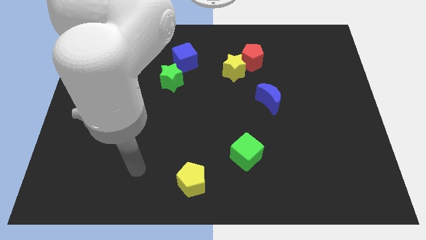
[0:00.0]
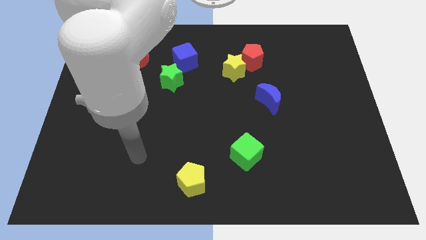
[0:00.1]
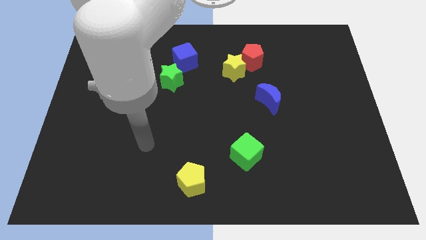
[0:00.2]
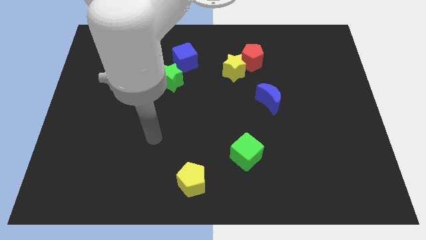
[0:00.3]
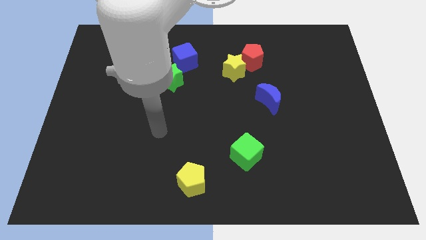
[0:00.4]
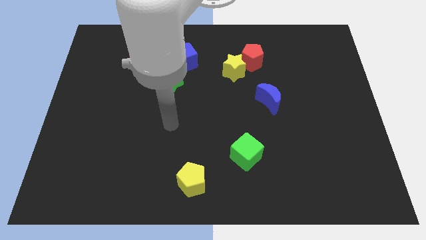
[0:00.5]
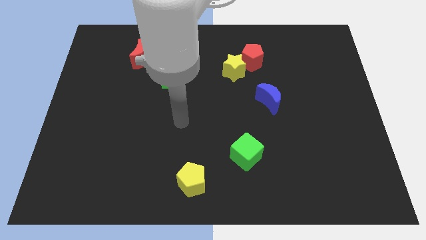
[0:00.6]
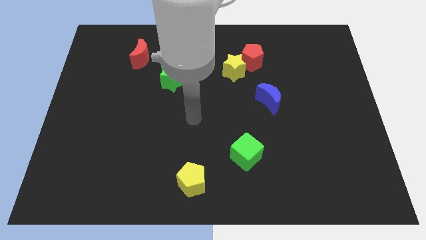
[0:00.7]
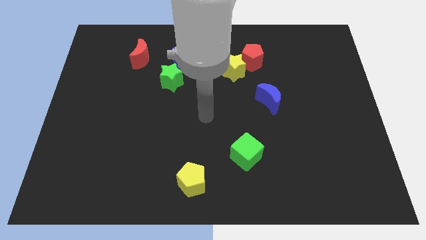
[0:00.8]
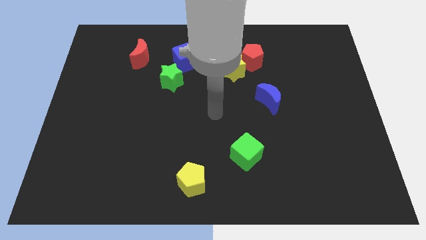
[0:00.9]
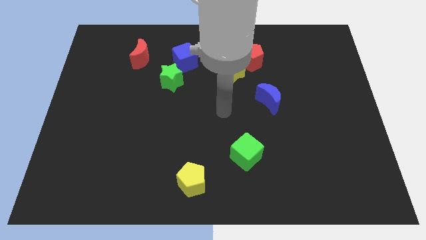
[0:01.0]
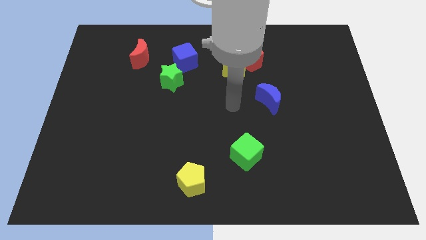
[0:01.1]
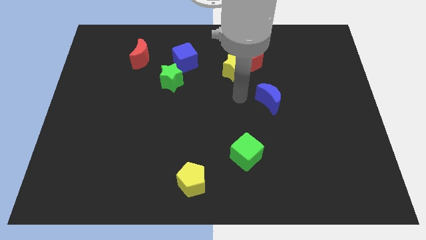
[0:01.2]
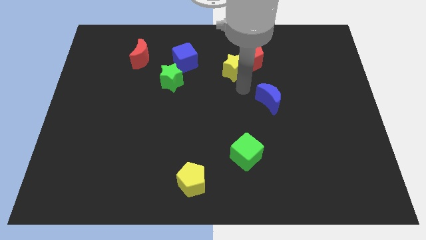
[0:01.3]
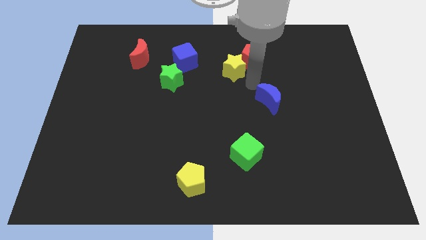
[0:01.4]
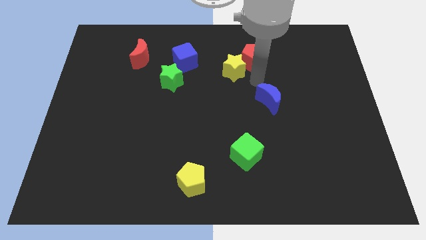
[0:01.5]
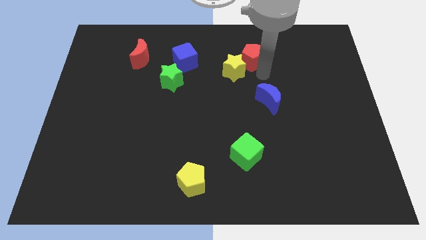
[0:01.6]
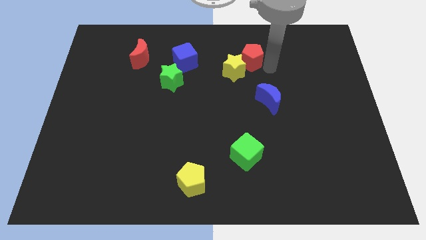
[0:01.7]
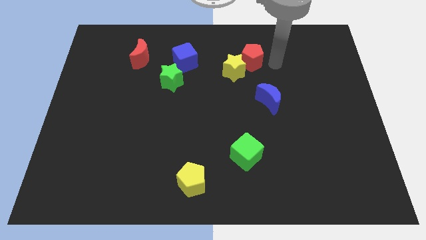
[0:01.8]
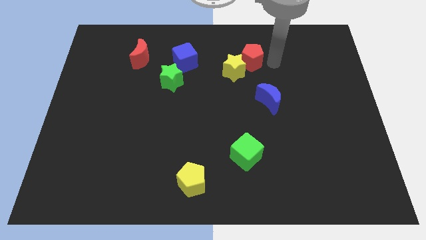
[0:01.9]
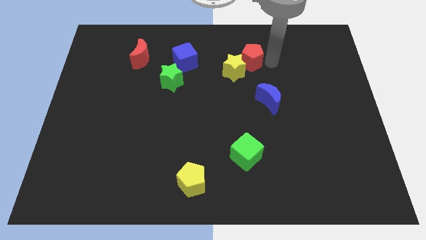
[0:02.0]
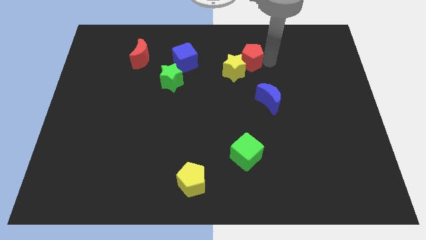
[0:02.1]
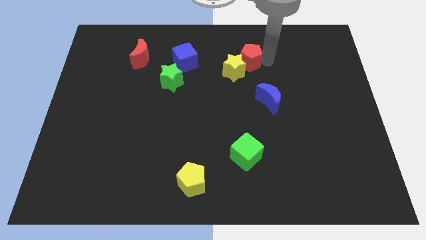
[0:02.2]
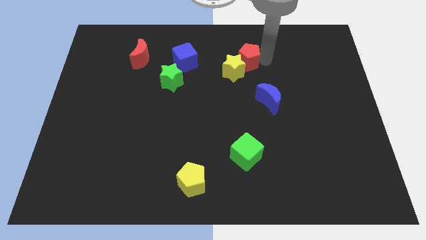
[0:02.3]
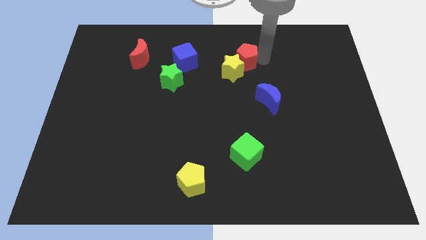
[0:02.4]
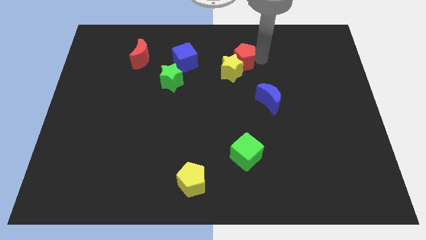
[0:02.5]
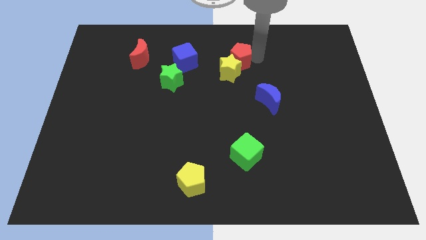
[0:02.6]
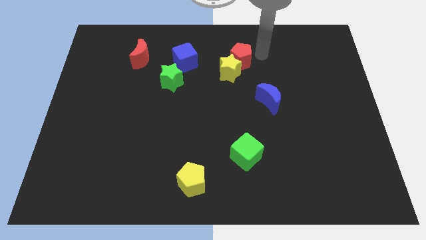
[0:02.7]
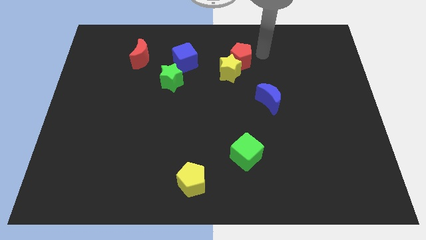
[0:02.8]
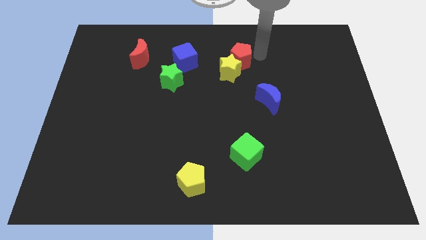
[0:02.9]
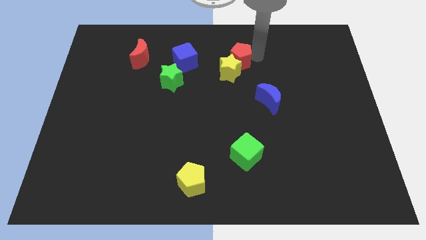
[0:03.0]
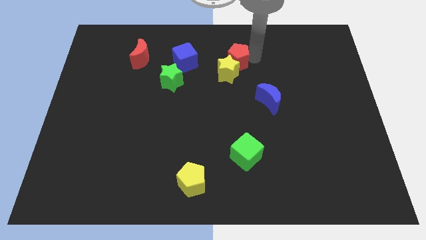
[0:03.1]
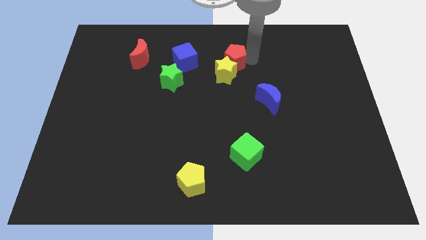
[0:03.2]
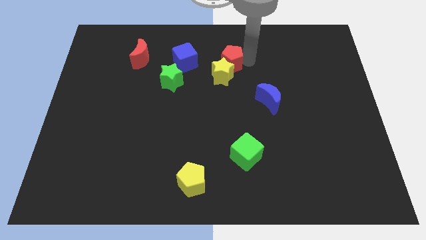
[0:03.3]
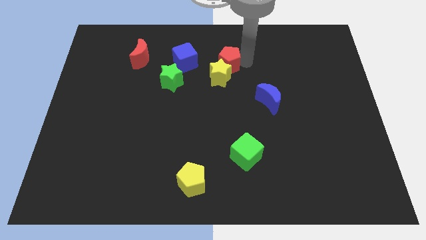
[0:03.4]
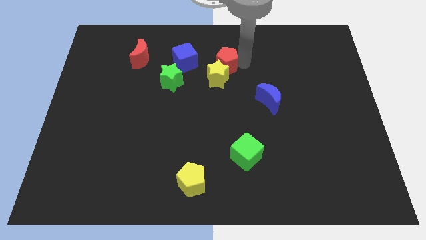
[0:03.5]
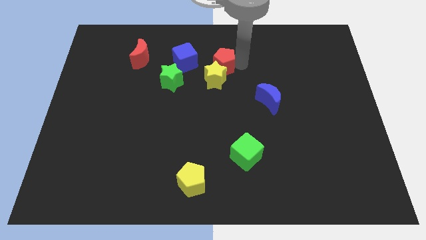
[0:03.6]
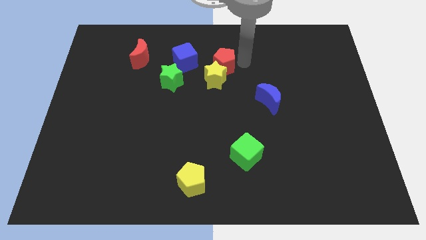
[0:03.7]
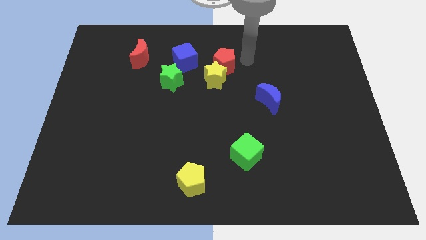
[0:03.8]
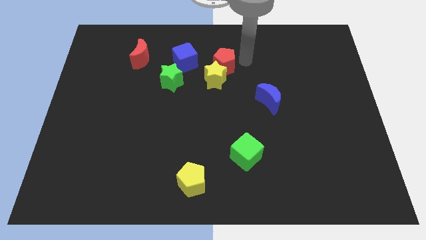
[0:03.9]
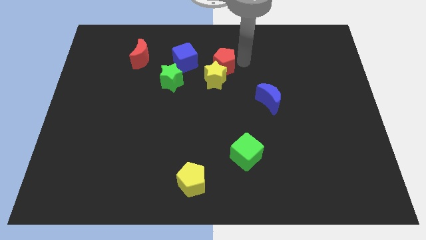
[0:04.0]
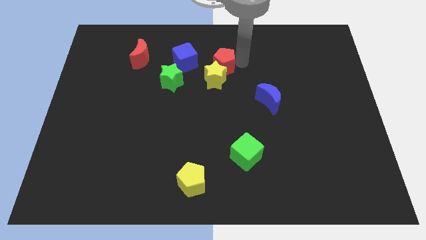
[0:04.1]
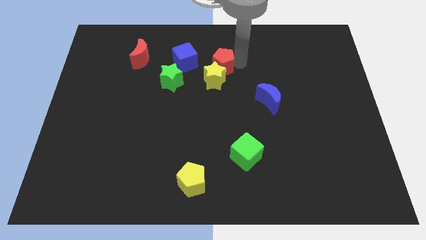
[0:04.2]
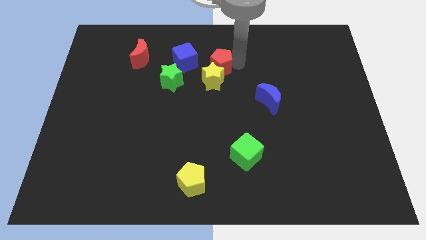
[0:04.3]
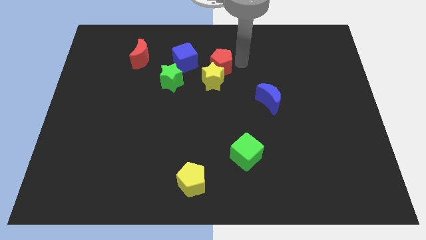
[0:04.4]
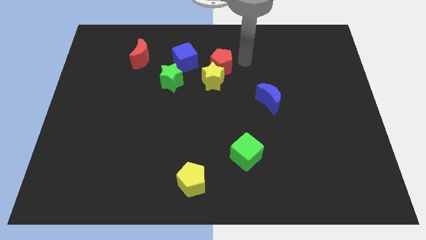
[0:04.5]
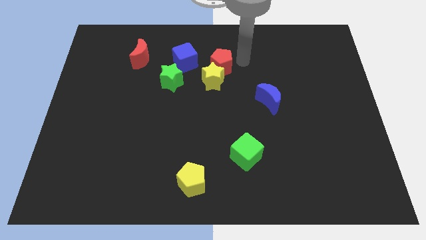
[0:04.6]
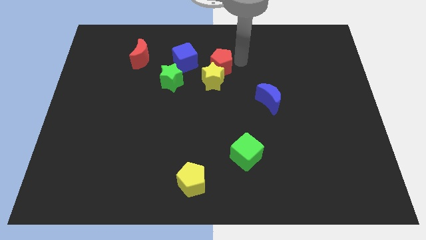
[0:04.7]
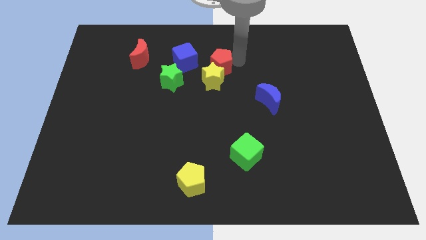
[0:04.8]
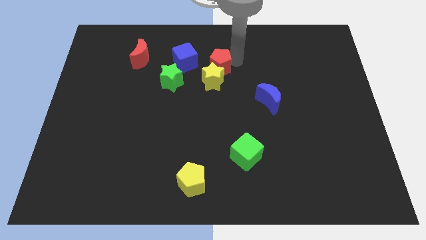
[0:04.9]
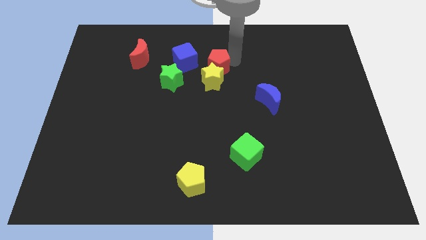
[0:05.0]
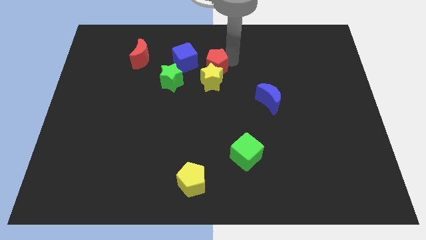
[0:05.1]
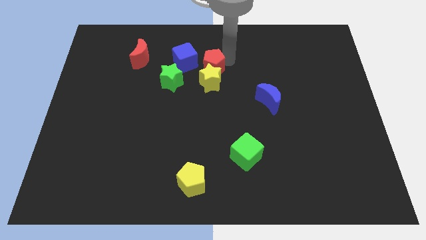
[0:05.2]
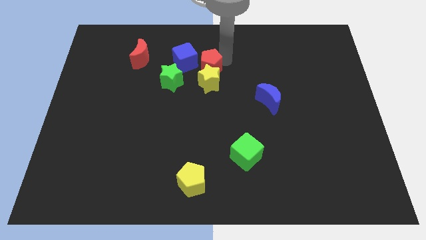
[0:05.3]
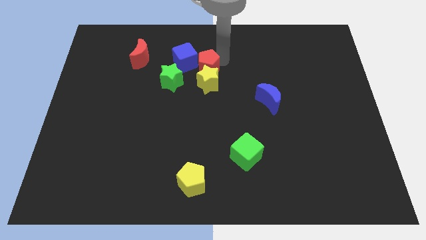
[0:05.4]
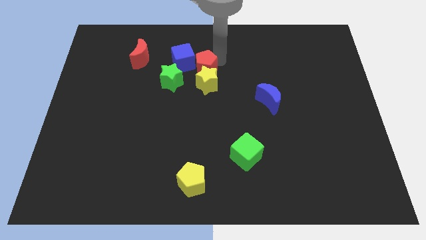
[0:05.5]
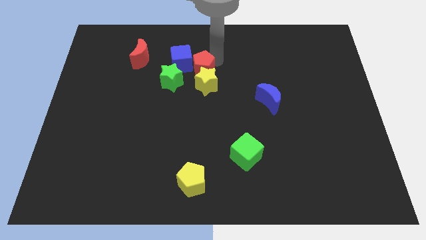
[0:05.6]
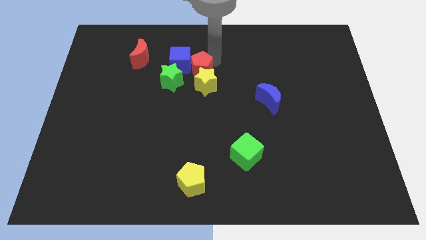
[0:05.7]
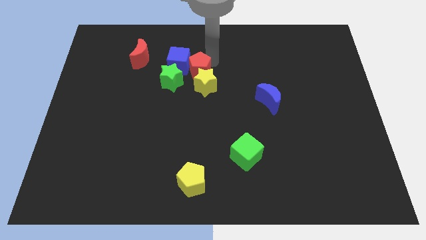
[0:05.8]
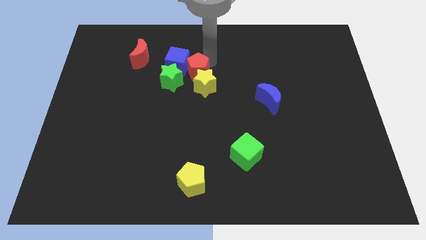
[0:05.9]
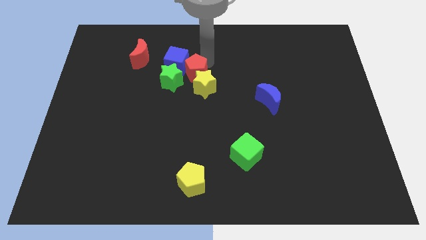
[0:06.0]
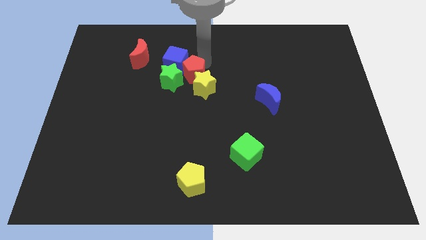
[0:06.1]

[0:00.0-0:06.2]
slide the red pentagon close to the green star
